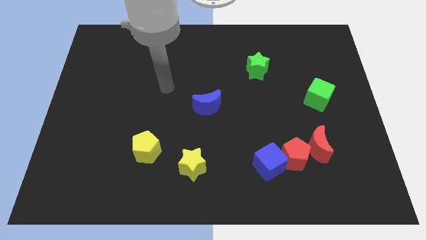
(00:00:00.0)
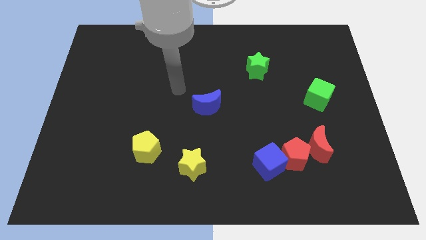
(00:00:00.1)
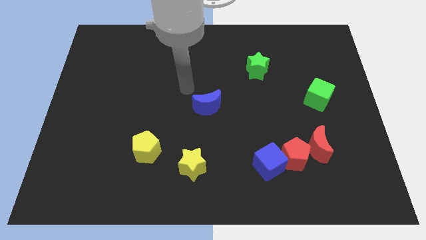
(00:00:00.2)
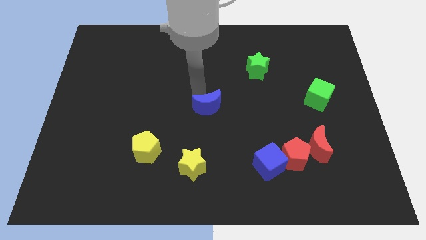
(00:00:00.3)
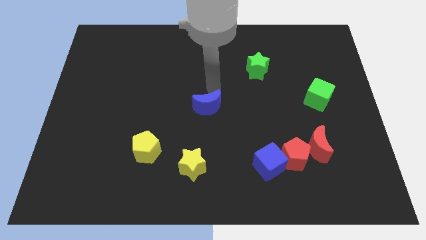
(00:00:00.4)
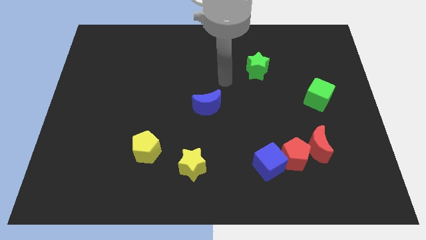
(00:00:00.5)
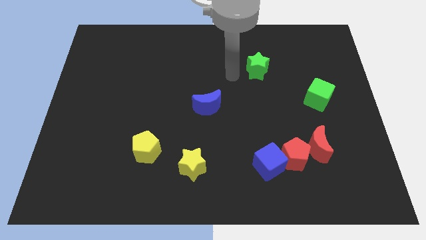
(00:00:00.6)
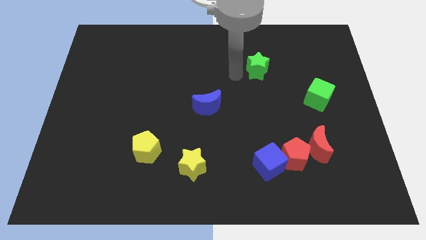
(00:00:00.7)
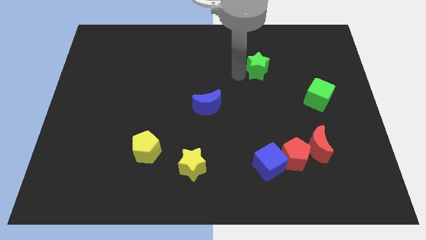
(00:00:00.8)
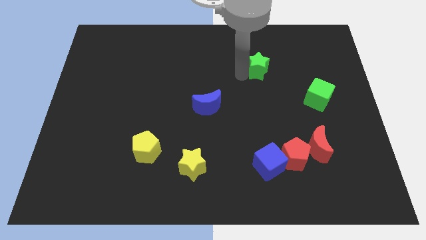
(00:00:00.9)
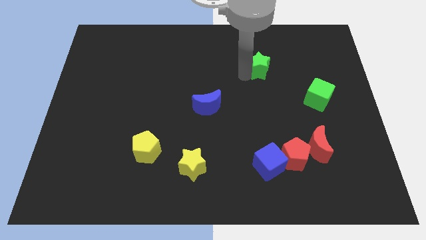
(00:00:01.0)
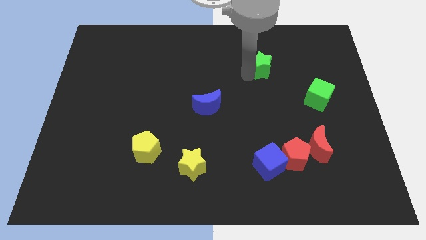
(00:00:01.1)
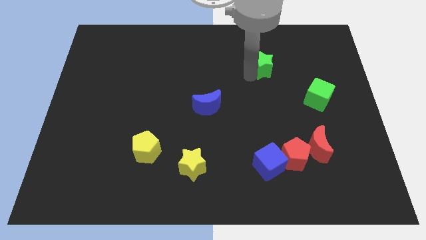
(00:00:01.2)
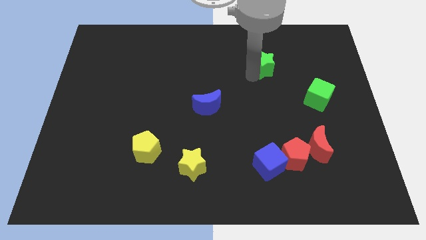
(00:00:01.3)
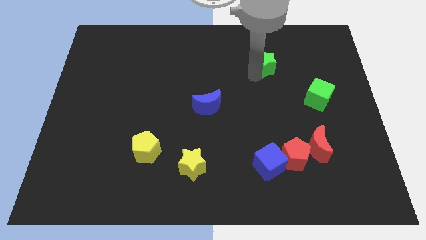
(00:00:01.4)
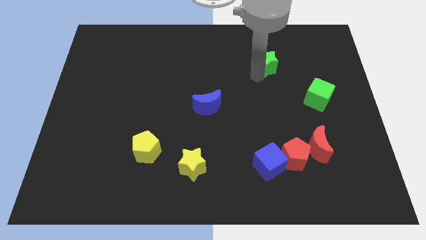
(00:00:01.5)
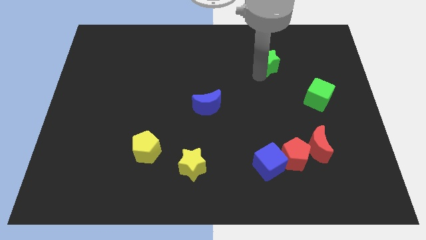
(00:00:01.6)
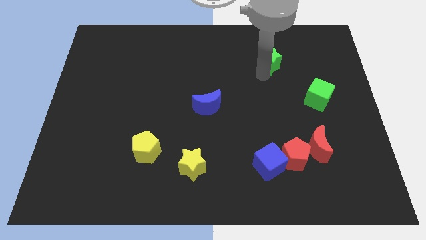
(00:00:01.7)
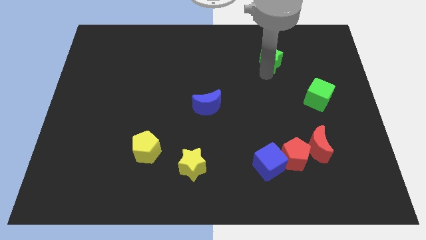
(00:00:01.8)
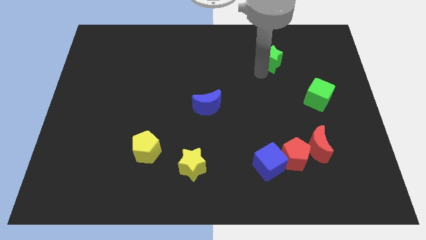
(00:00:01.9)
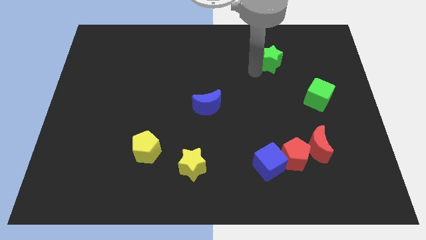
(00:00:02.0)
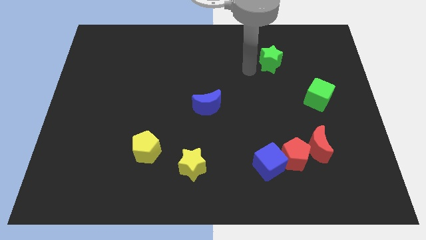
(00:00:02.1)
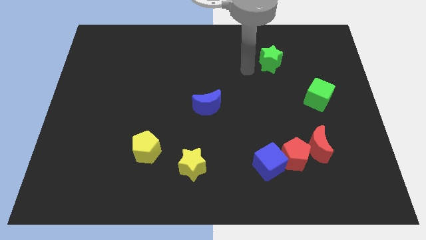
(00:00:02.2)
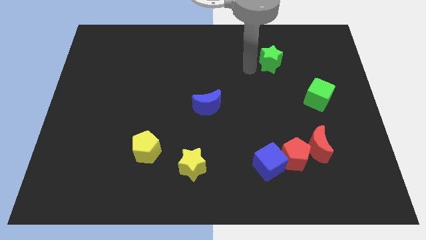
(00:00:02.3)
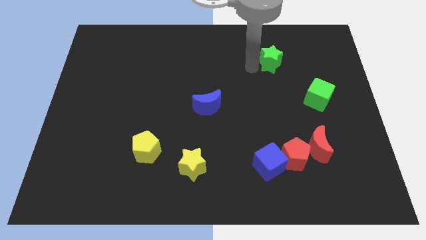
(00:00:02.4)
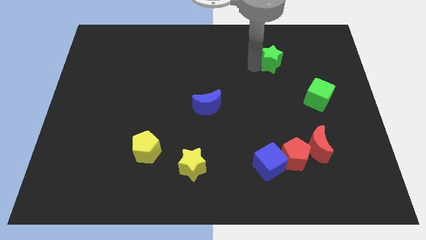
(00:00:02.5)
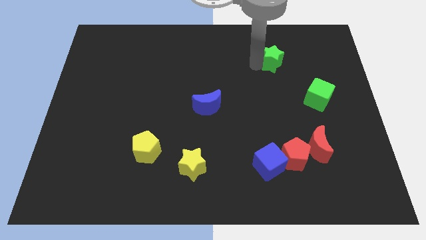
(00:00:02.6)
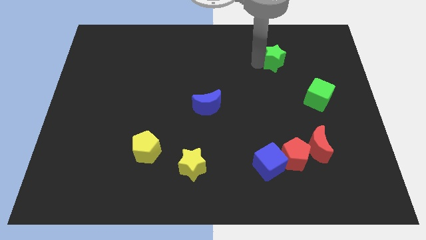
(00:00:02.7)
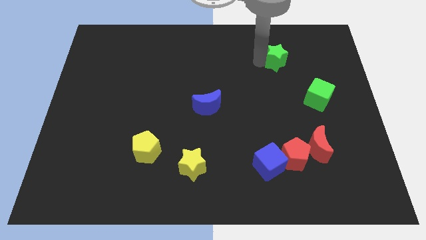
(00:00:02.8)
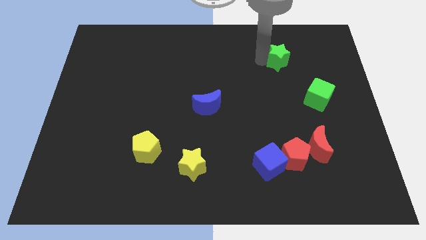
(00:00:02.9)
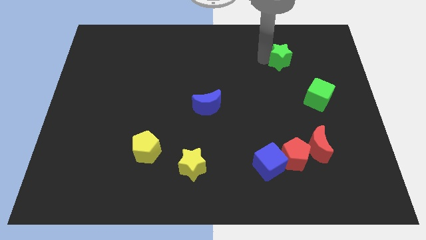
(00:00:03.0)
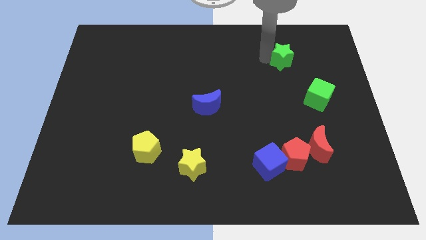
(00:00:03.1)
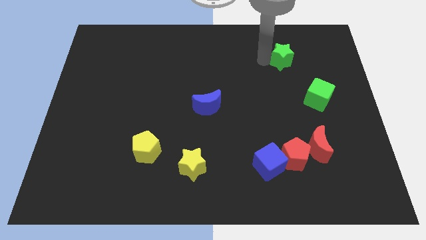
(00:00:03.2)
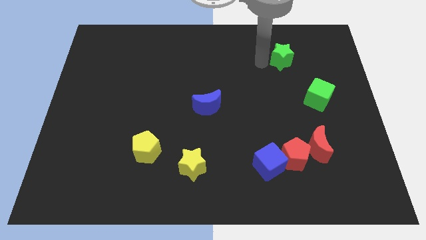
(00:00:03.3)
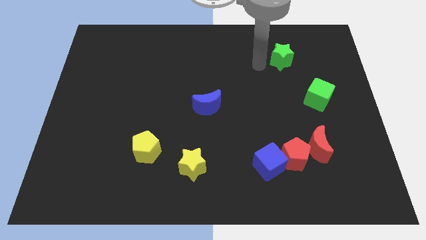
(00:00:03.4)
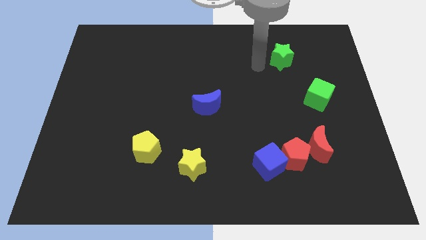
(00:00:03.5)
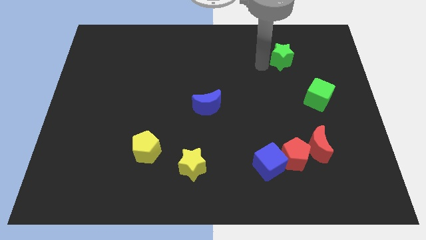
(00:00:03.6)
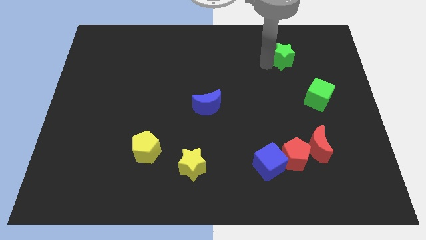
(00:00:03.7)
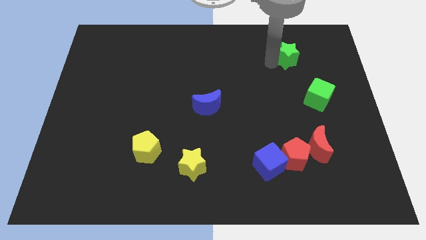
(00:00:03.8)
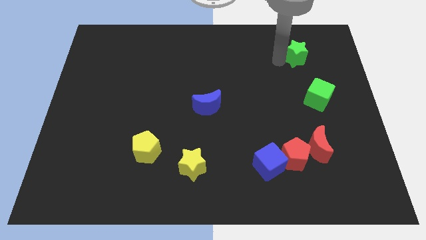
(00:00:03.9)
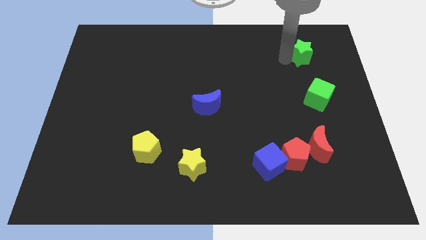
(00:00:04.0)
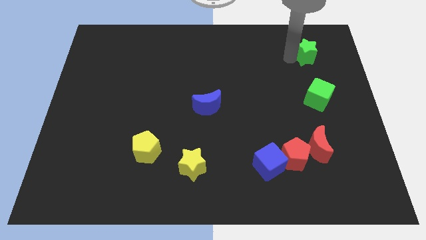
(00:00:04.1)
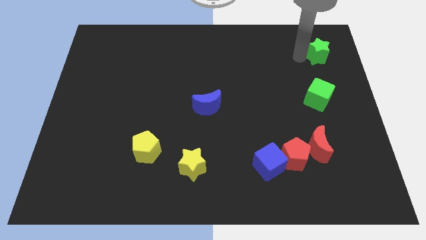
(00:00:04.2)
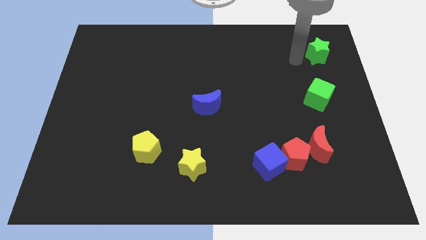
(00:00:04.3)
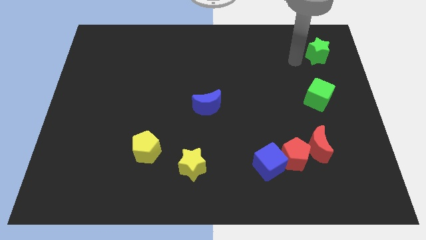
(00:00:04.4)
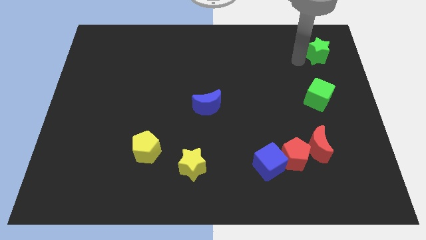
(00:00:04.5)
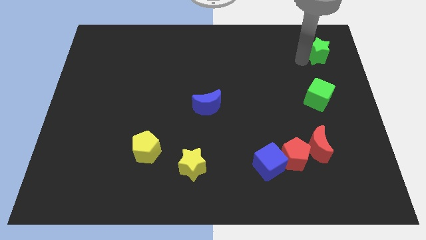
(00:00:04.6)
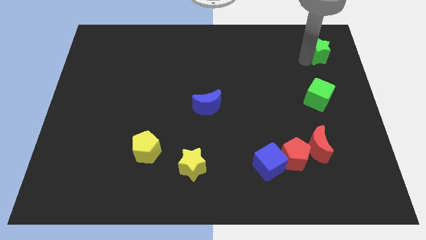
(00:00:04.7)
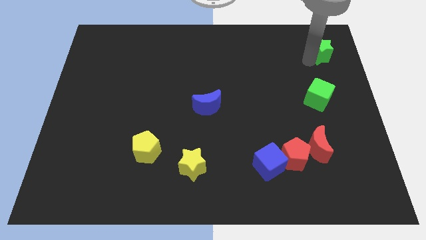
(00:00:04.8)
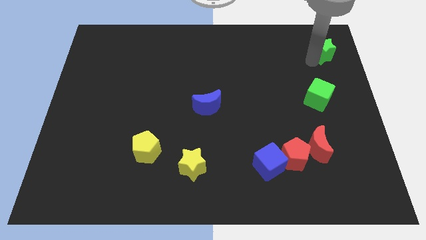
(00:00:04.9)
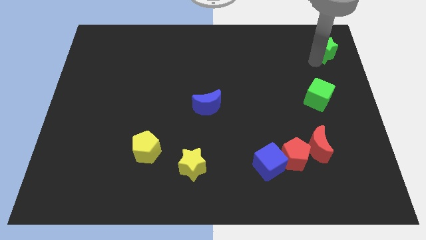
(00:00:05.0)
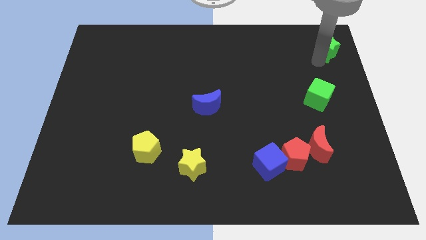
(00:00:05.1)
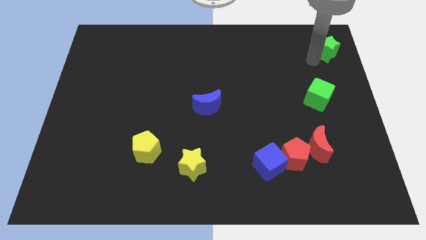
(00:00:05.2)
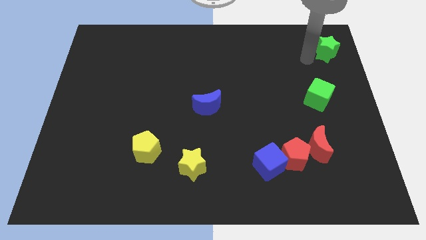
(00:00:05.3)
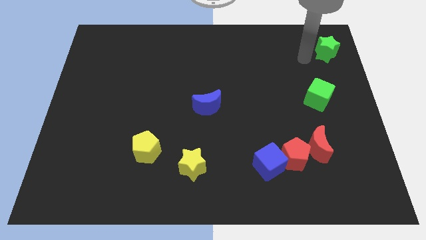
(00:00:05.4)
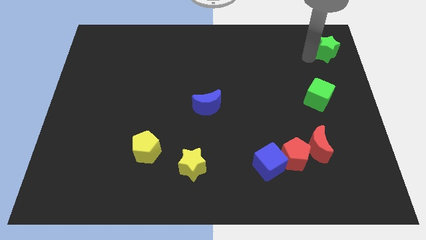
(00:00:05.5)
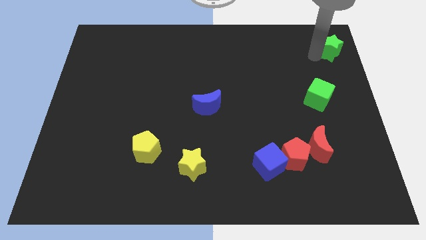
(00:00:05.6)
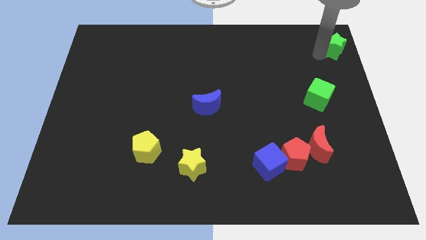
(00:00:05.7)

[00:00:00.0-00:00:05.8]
put the green star to the top right
